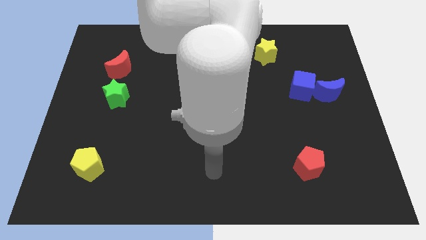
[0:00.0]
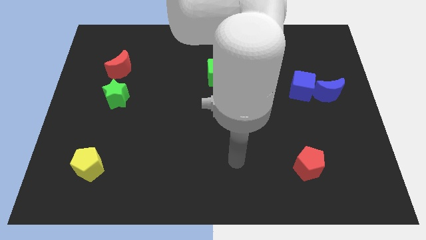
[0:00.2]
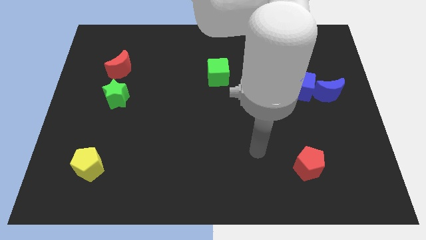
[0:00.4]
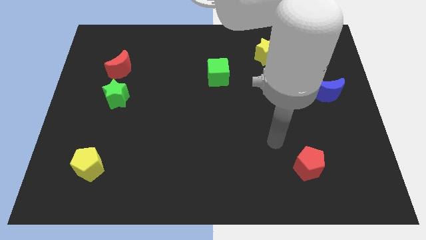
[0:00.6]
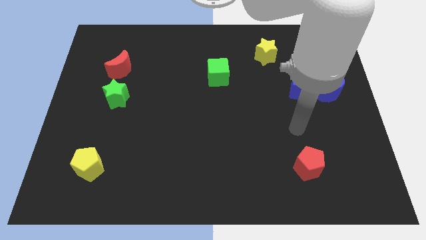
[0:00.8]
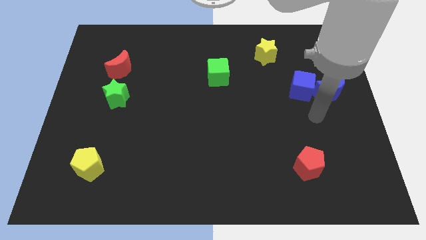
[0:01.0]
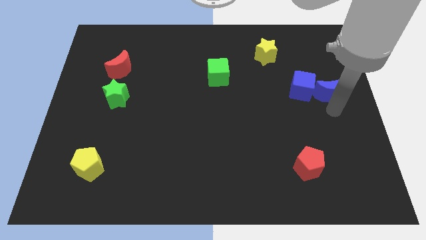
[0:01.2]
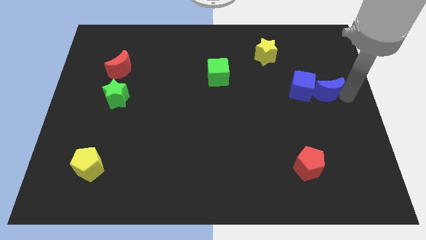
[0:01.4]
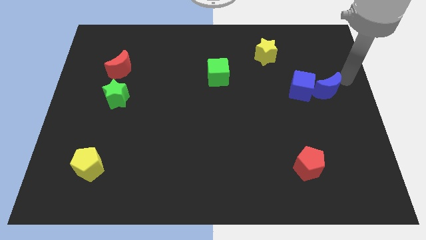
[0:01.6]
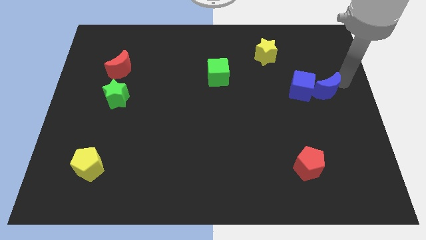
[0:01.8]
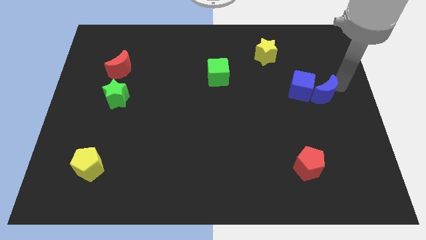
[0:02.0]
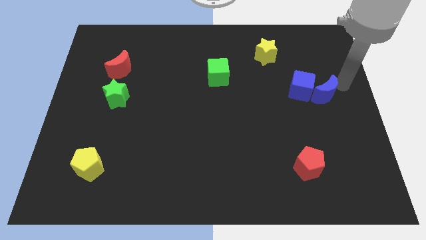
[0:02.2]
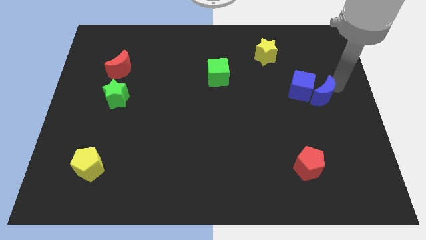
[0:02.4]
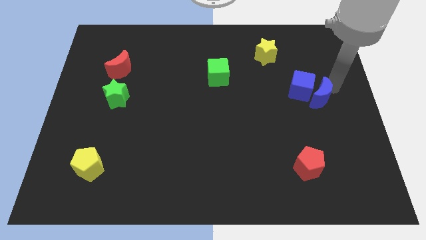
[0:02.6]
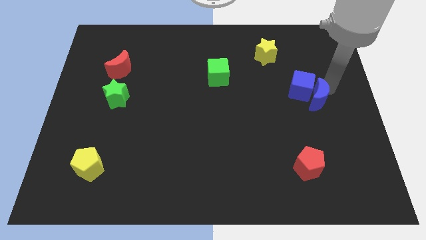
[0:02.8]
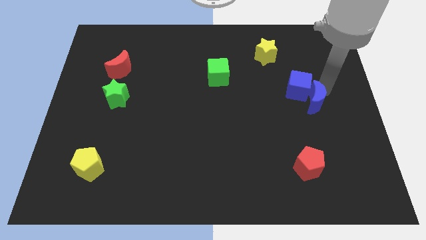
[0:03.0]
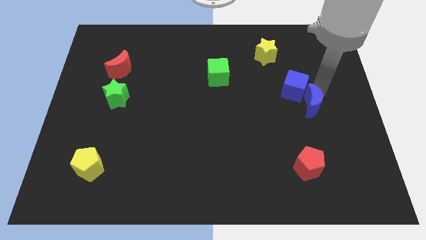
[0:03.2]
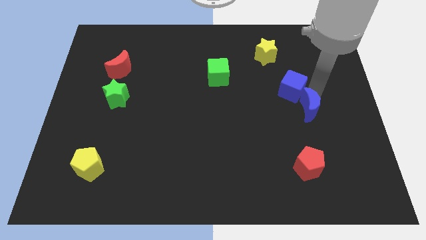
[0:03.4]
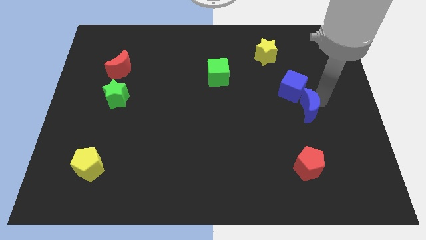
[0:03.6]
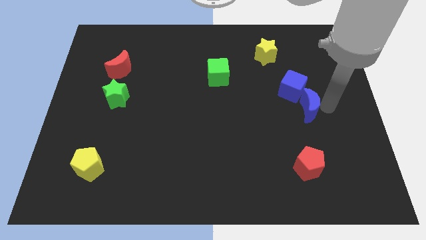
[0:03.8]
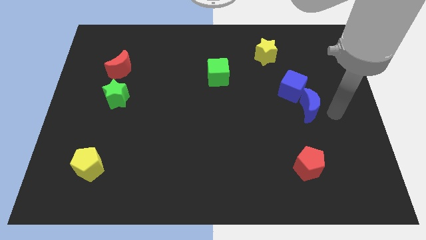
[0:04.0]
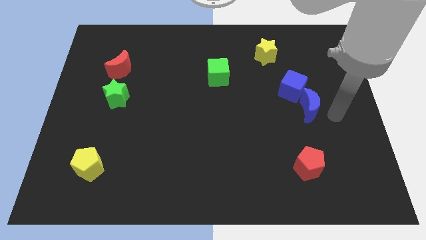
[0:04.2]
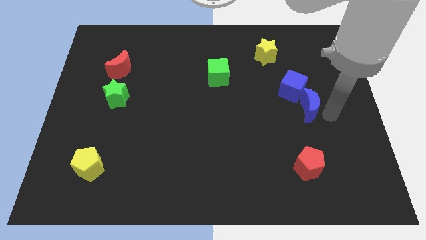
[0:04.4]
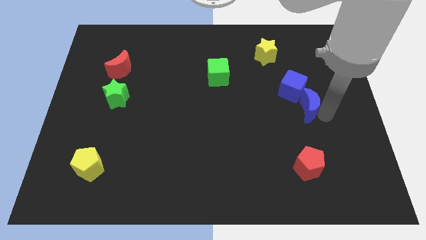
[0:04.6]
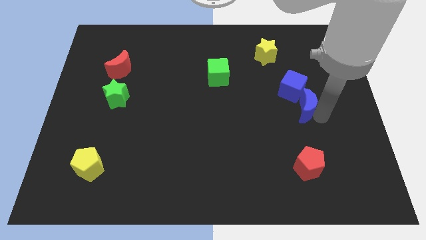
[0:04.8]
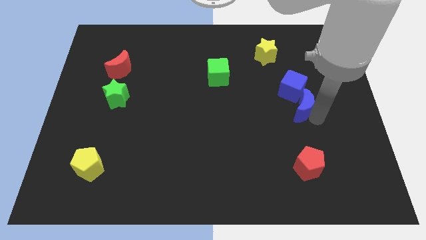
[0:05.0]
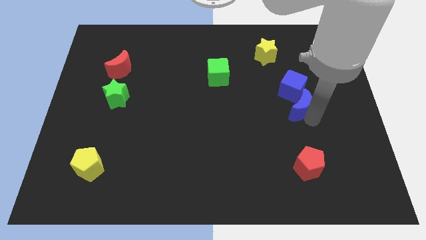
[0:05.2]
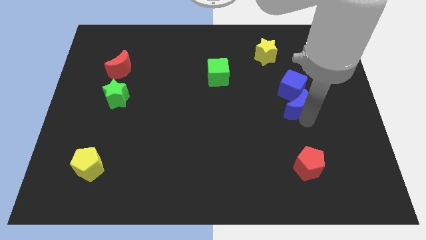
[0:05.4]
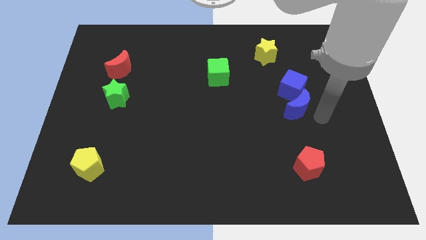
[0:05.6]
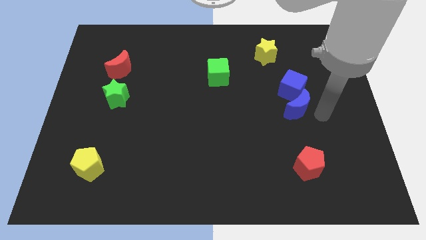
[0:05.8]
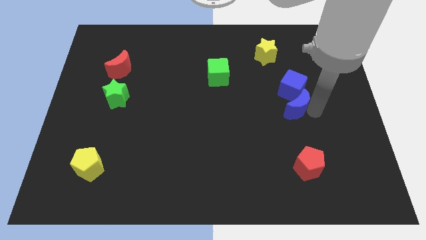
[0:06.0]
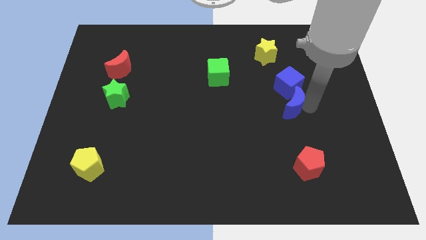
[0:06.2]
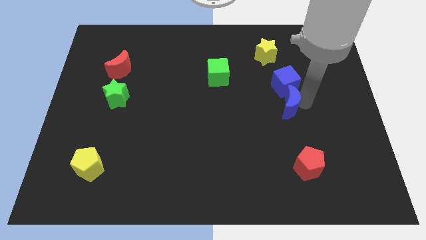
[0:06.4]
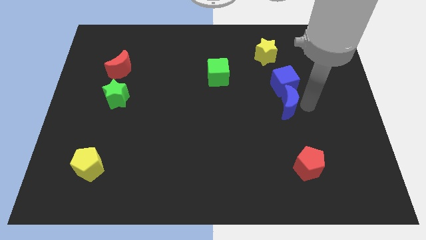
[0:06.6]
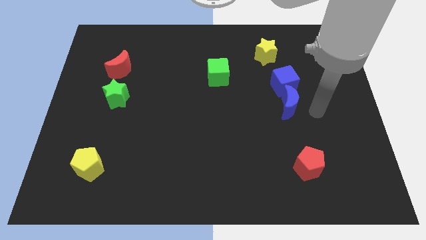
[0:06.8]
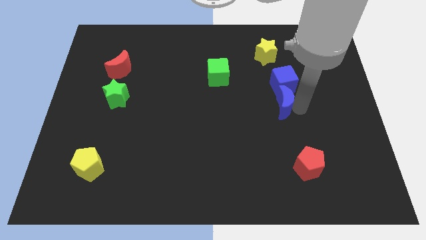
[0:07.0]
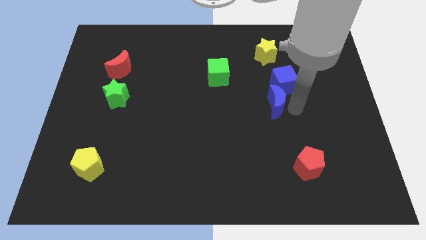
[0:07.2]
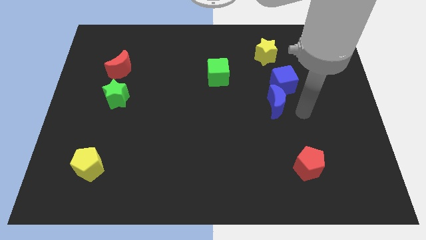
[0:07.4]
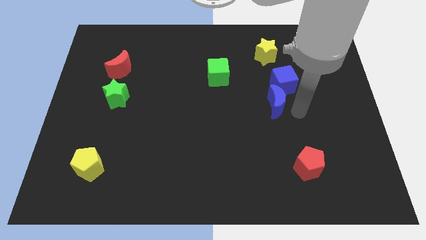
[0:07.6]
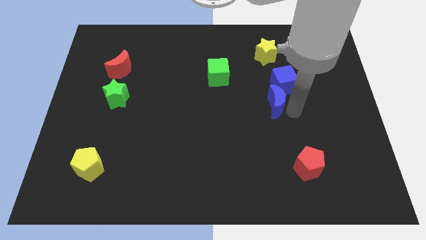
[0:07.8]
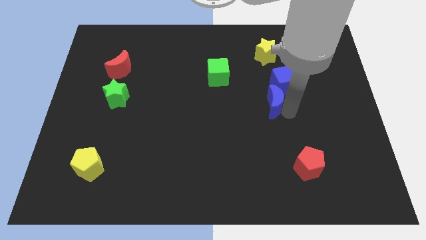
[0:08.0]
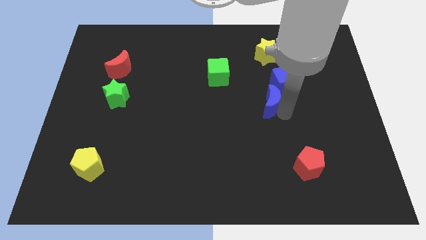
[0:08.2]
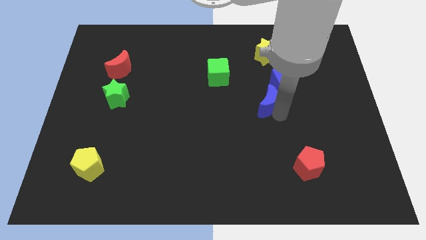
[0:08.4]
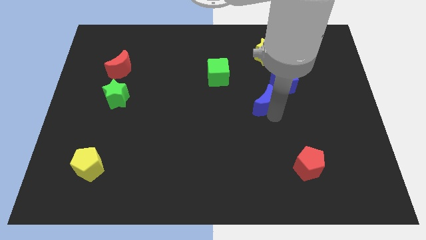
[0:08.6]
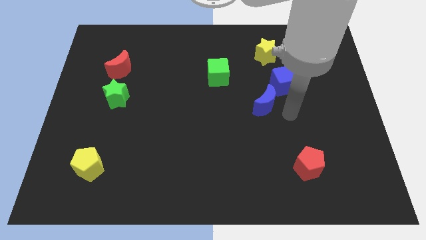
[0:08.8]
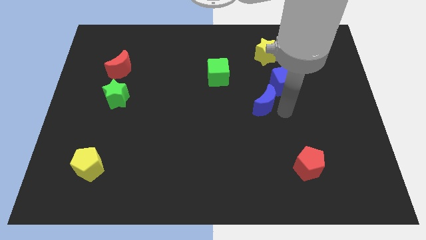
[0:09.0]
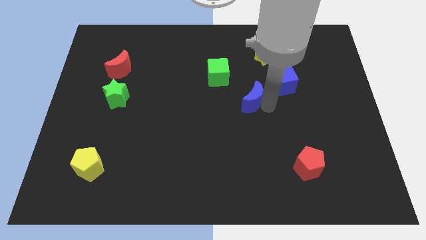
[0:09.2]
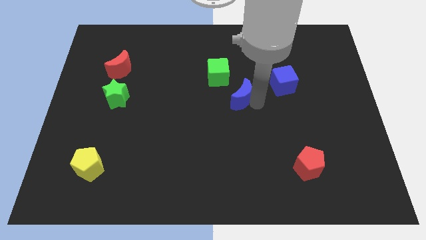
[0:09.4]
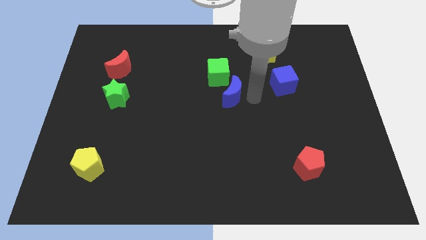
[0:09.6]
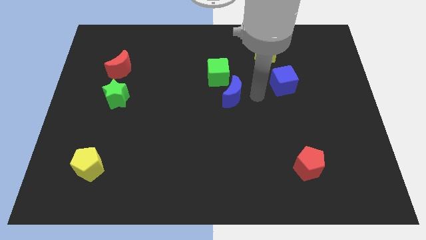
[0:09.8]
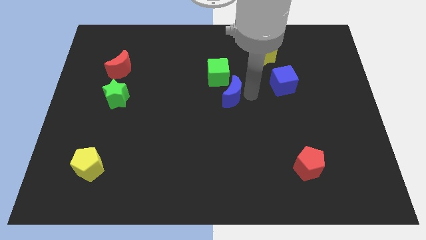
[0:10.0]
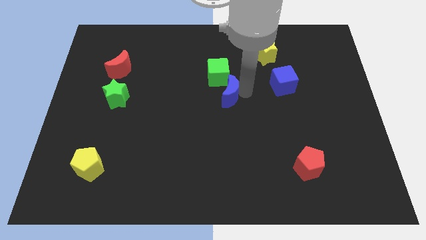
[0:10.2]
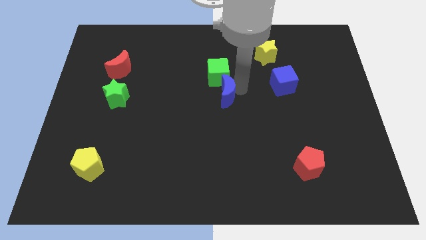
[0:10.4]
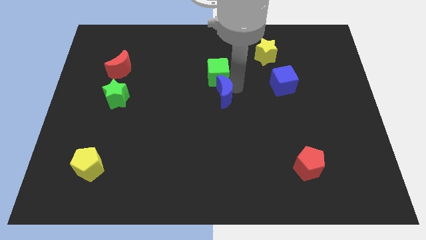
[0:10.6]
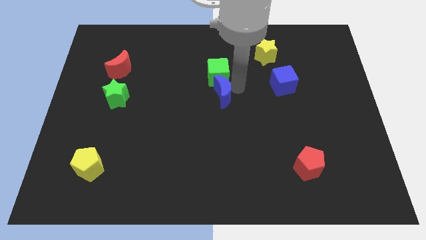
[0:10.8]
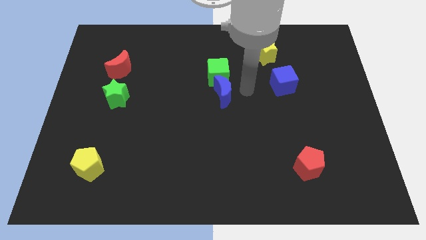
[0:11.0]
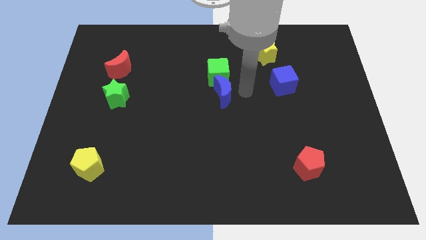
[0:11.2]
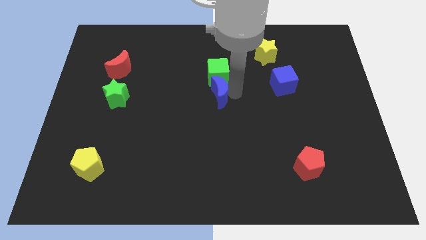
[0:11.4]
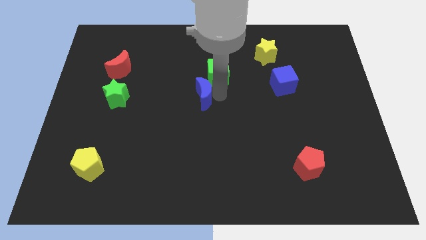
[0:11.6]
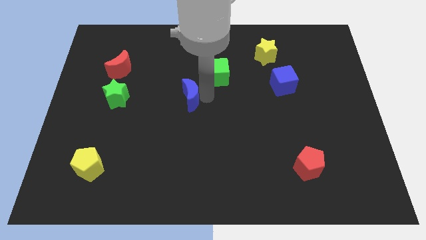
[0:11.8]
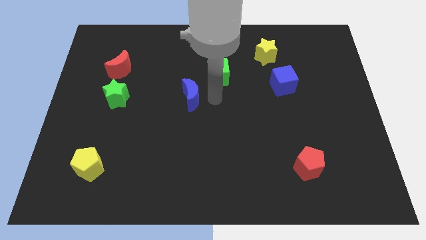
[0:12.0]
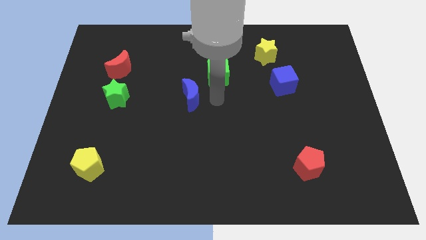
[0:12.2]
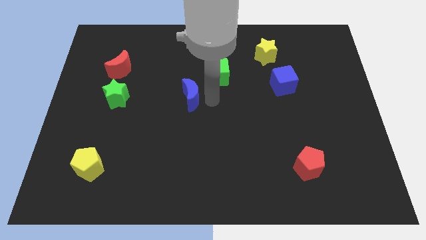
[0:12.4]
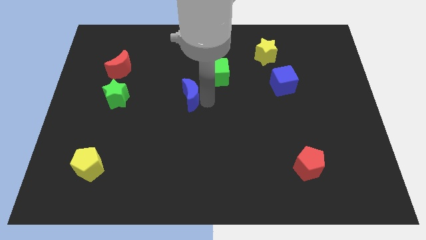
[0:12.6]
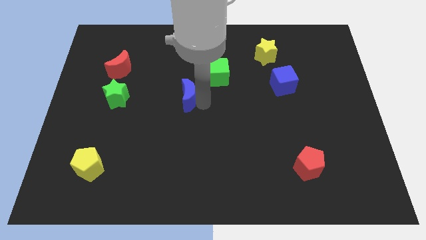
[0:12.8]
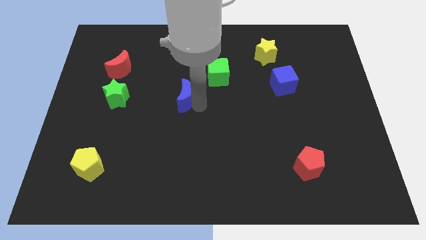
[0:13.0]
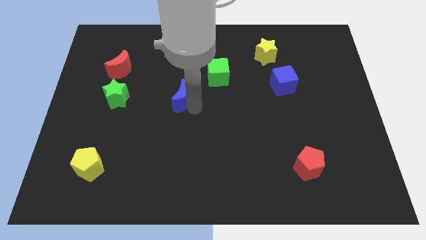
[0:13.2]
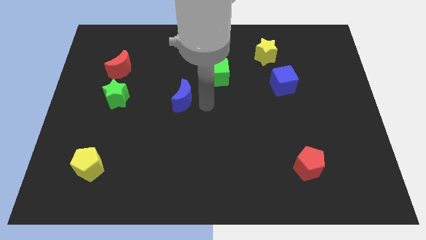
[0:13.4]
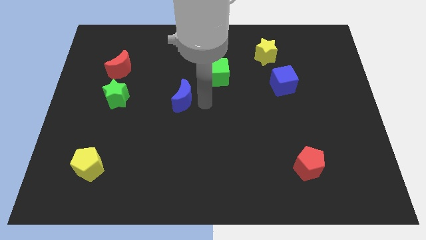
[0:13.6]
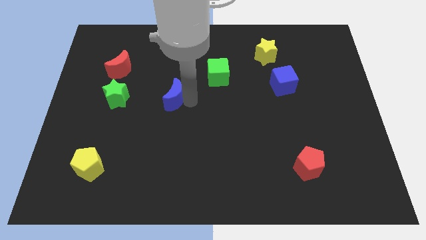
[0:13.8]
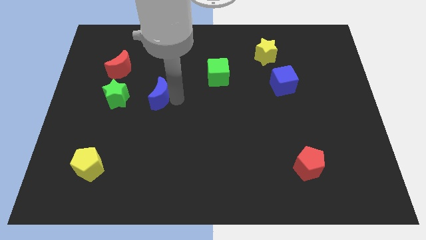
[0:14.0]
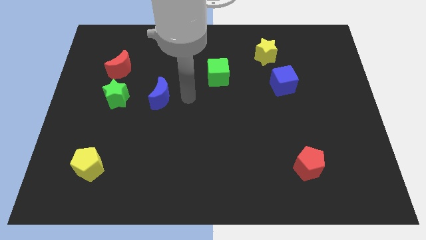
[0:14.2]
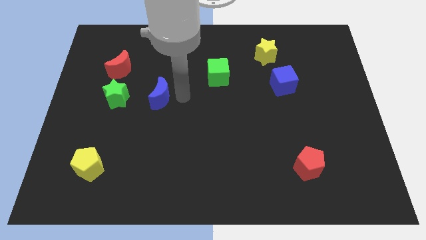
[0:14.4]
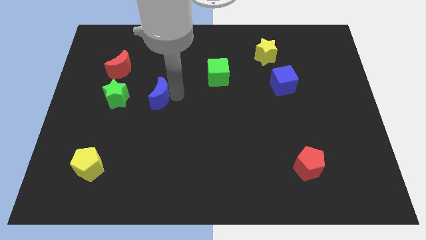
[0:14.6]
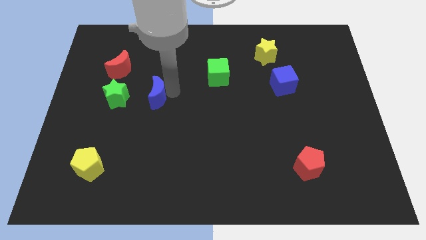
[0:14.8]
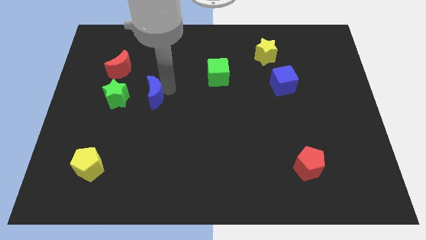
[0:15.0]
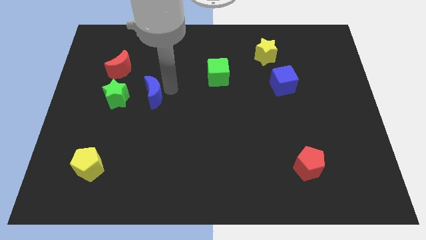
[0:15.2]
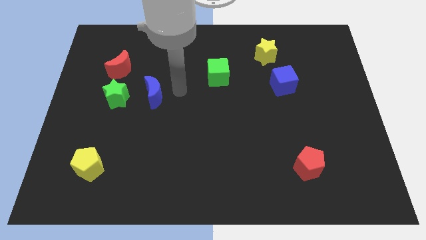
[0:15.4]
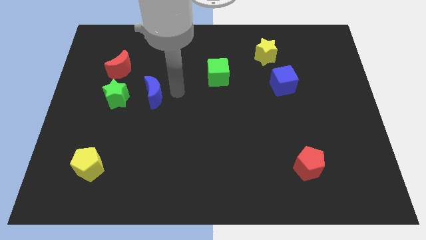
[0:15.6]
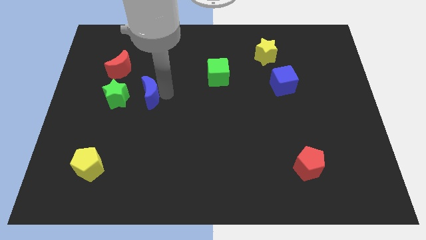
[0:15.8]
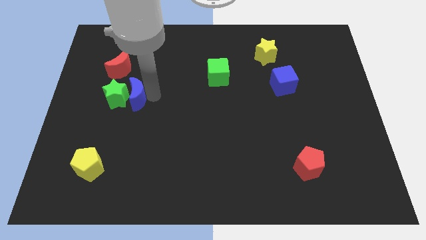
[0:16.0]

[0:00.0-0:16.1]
slide the blue moon to the green star
